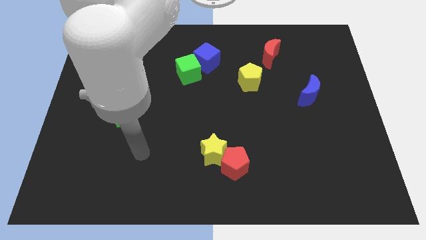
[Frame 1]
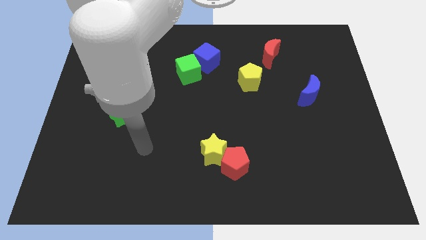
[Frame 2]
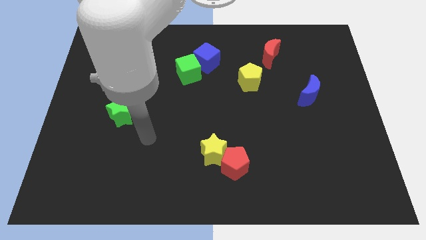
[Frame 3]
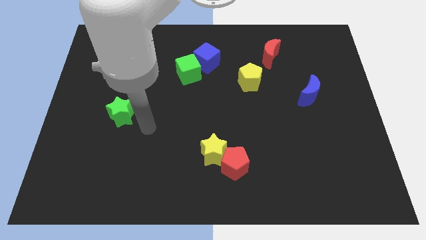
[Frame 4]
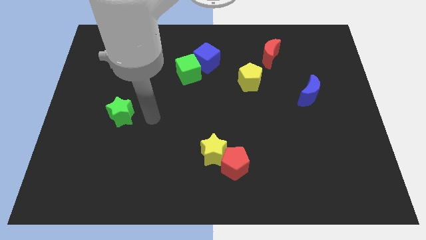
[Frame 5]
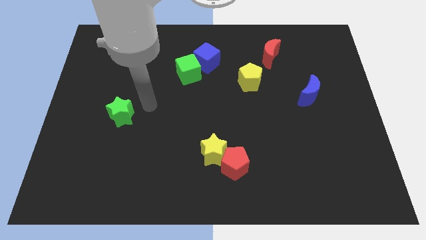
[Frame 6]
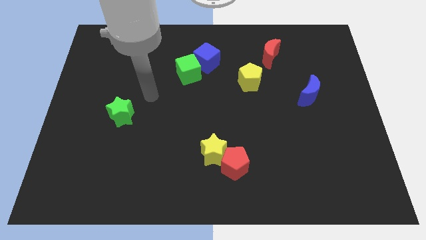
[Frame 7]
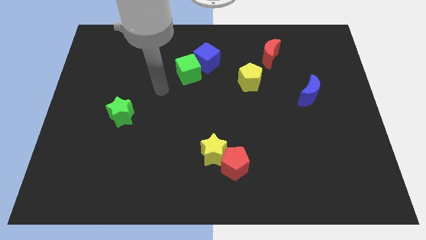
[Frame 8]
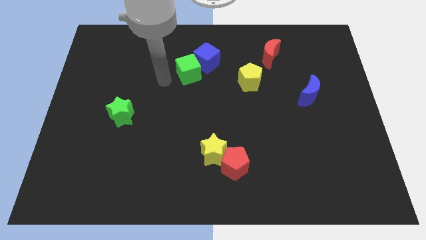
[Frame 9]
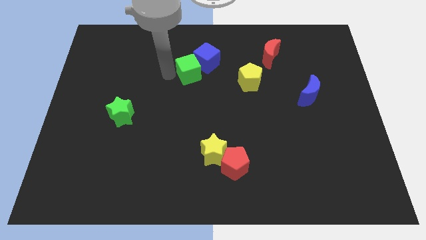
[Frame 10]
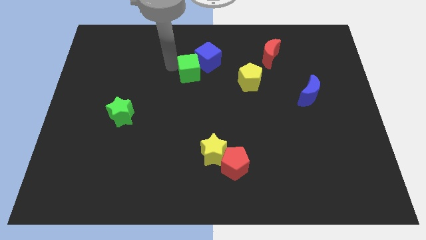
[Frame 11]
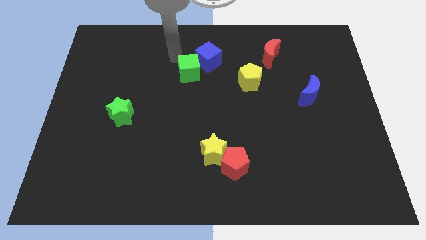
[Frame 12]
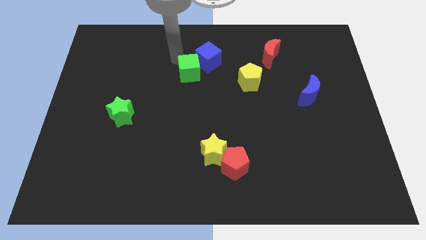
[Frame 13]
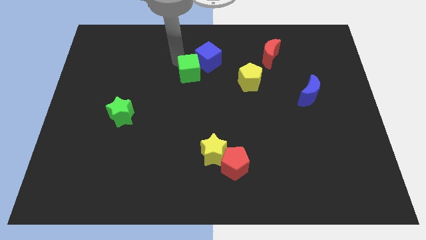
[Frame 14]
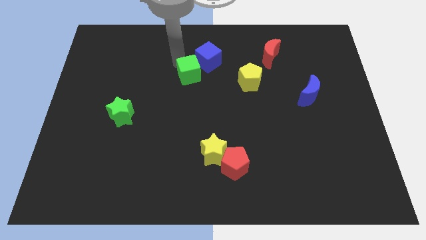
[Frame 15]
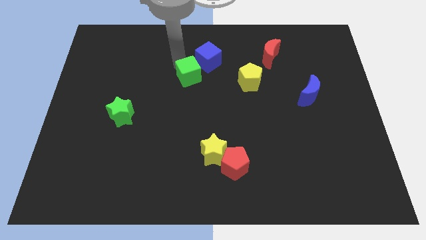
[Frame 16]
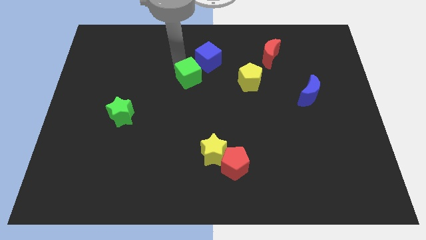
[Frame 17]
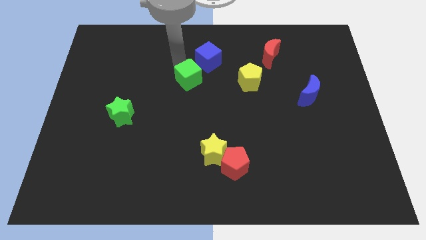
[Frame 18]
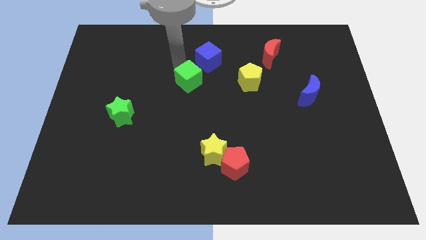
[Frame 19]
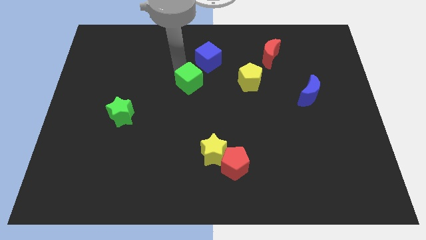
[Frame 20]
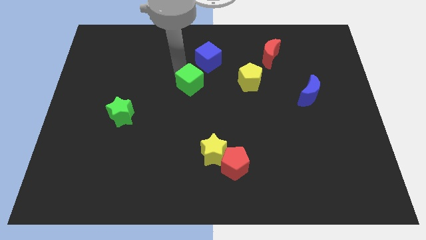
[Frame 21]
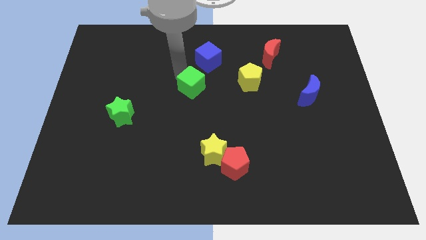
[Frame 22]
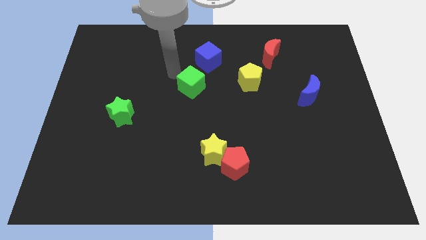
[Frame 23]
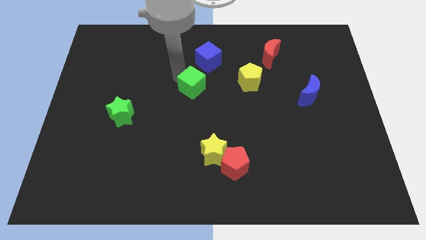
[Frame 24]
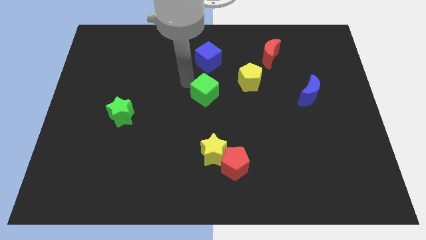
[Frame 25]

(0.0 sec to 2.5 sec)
move the green cube down and right a little

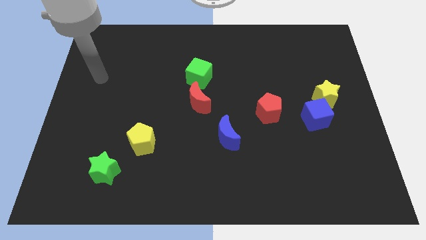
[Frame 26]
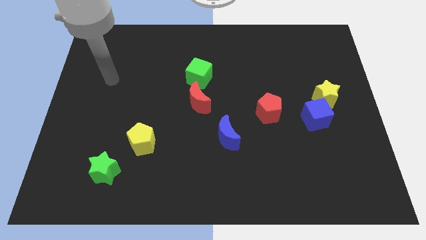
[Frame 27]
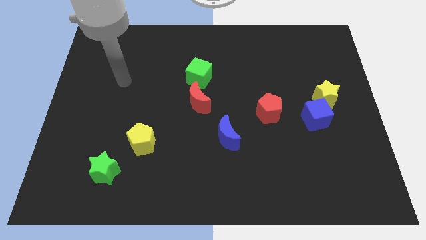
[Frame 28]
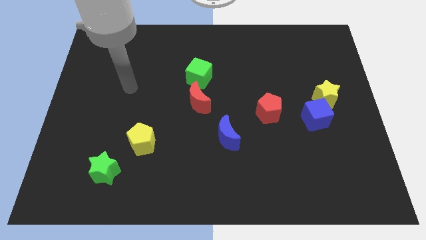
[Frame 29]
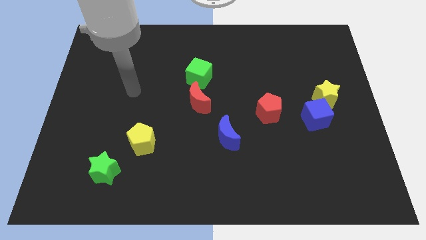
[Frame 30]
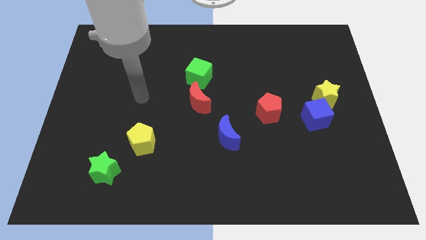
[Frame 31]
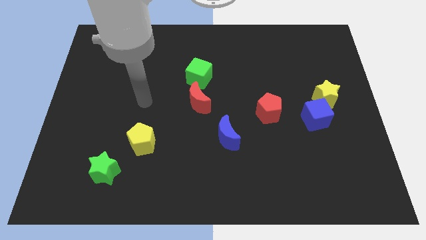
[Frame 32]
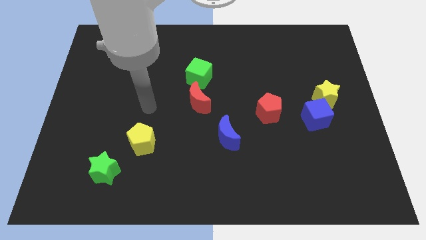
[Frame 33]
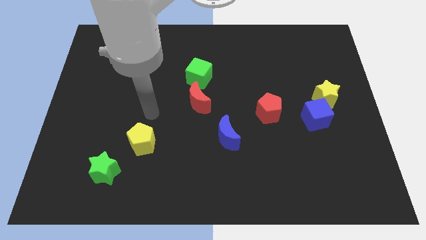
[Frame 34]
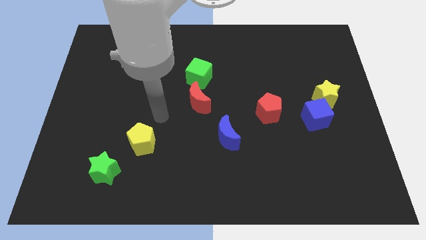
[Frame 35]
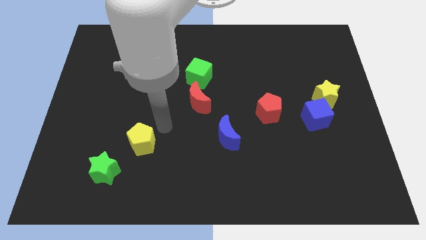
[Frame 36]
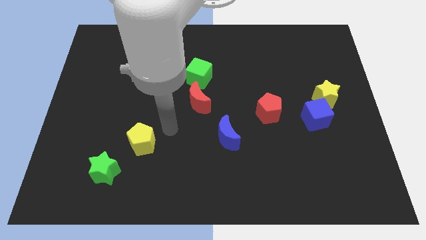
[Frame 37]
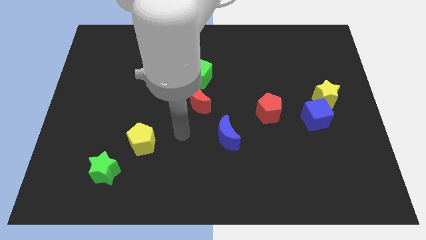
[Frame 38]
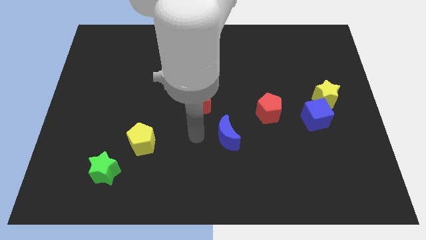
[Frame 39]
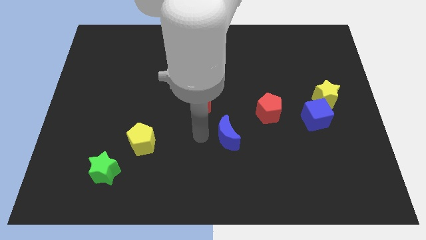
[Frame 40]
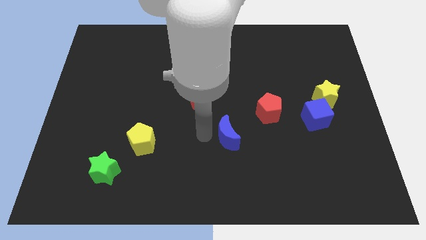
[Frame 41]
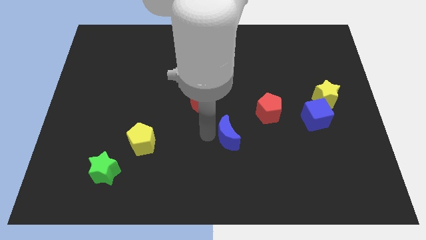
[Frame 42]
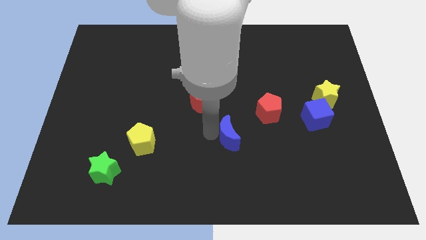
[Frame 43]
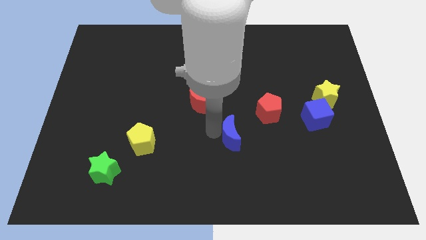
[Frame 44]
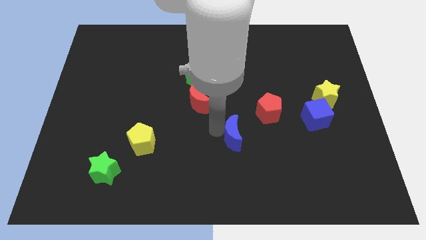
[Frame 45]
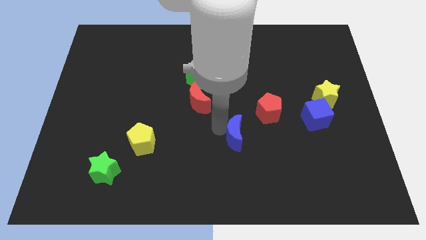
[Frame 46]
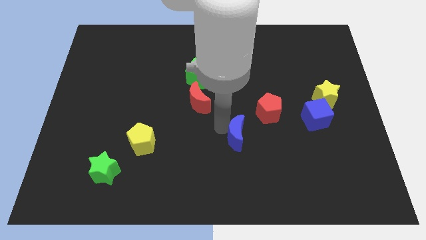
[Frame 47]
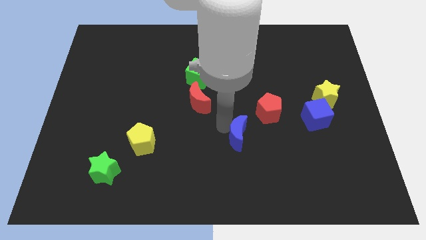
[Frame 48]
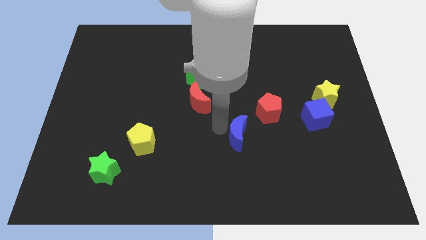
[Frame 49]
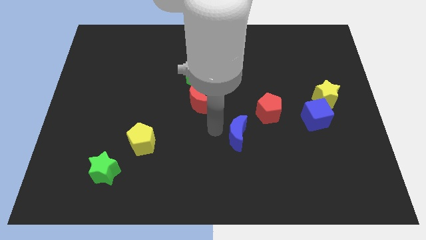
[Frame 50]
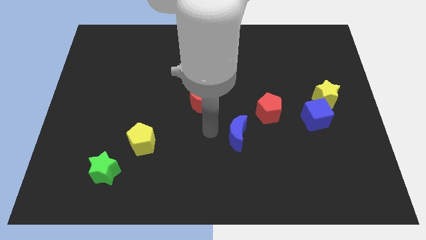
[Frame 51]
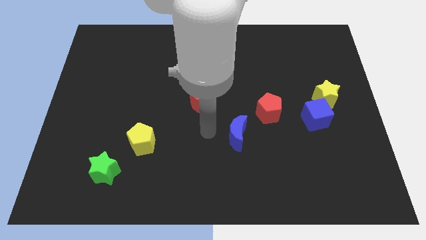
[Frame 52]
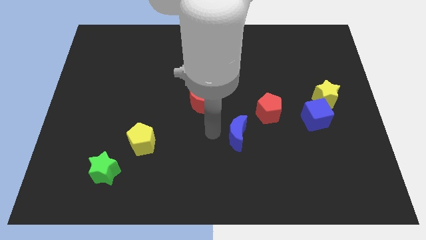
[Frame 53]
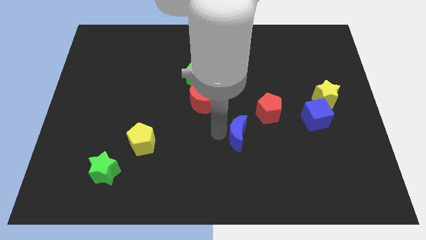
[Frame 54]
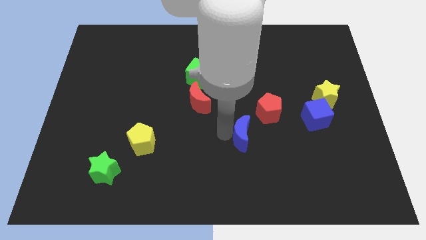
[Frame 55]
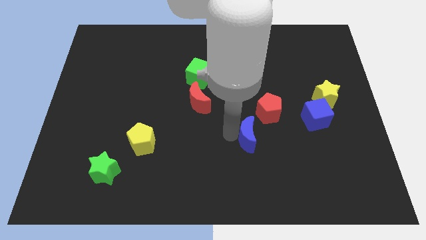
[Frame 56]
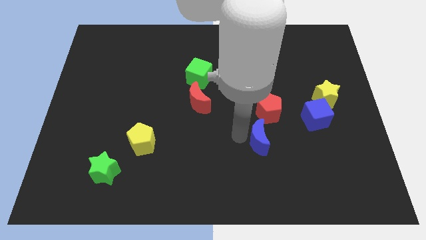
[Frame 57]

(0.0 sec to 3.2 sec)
slide the blue moon a little to the right

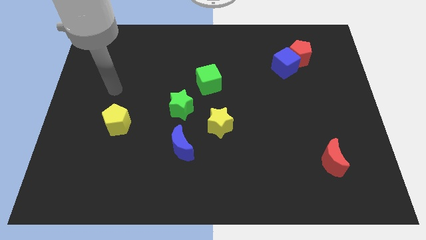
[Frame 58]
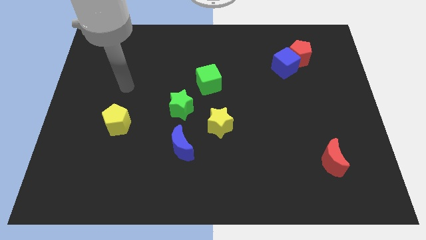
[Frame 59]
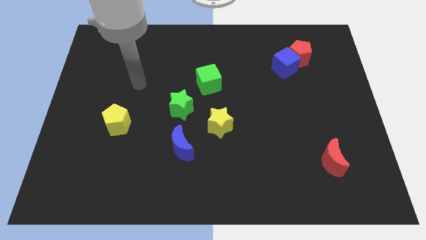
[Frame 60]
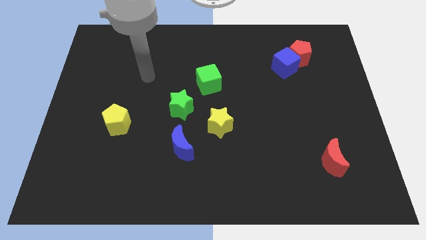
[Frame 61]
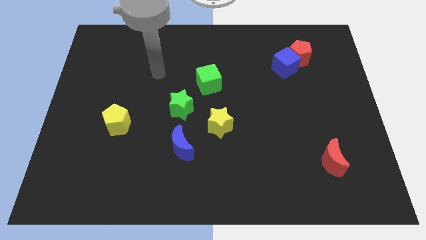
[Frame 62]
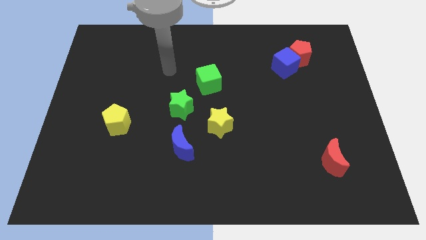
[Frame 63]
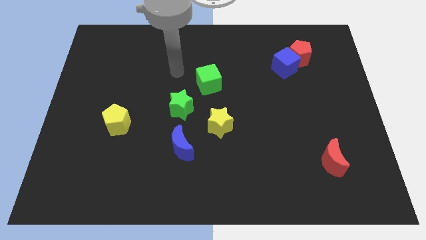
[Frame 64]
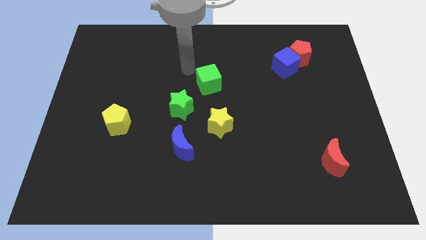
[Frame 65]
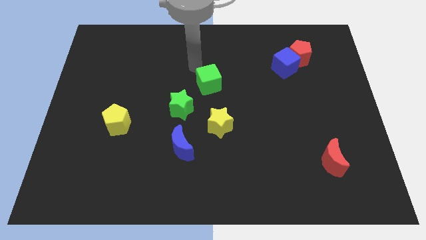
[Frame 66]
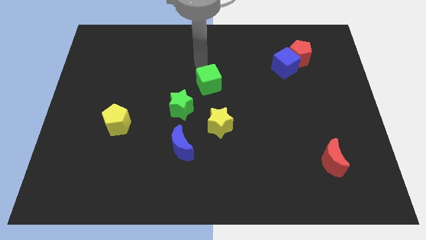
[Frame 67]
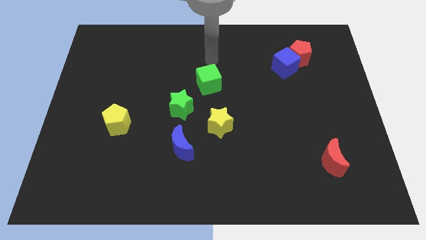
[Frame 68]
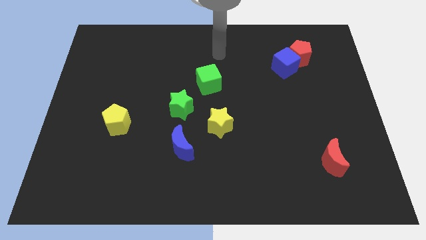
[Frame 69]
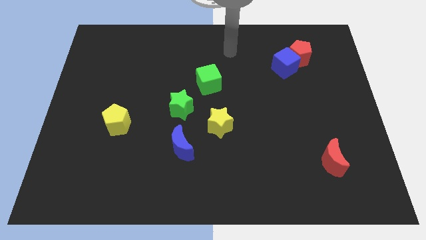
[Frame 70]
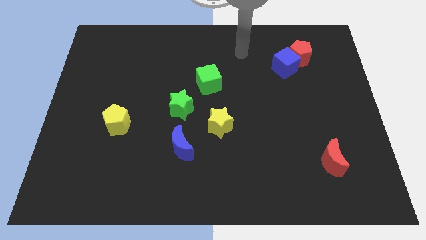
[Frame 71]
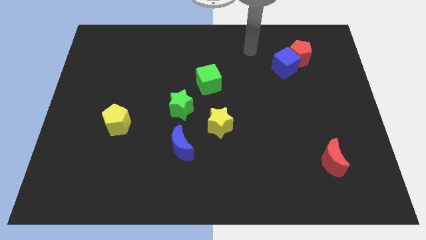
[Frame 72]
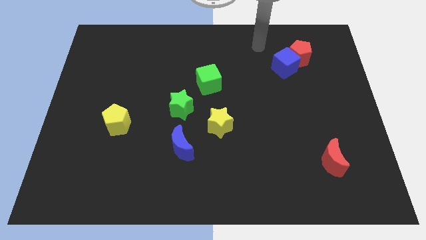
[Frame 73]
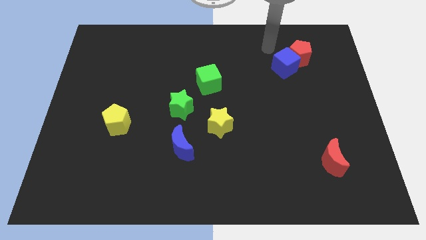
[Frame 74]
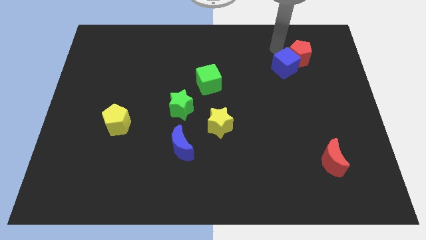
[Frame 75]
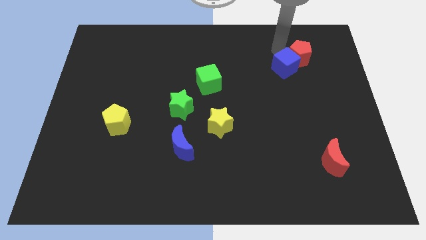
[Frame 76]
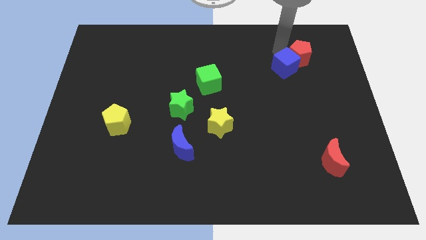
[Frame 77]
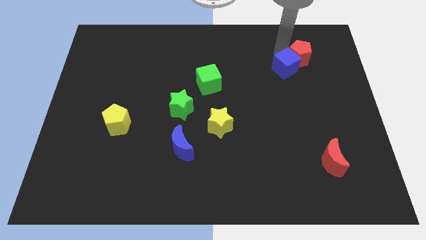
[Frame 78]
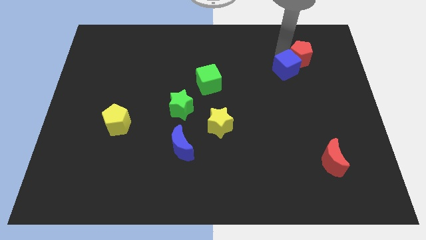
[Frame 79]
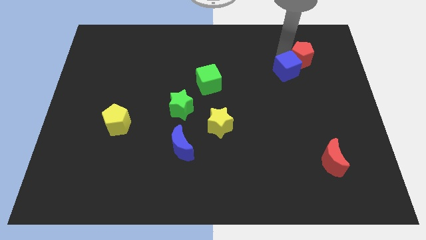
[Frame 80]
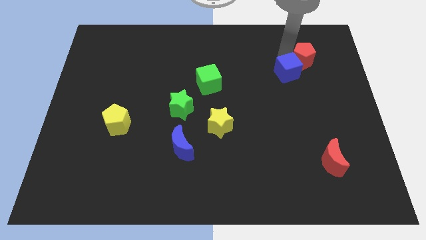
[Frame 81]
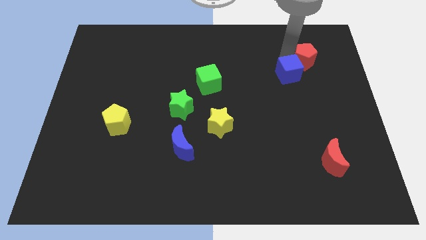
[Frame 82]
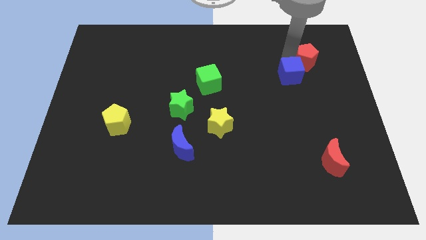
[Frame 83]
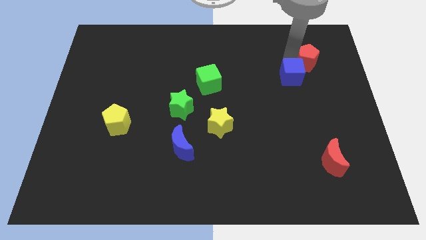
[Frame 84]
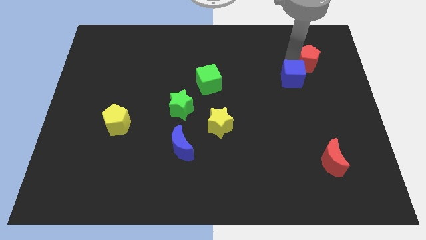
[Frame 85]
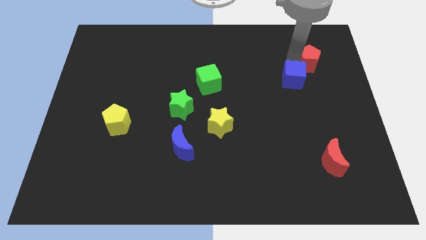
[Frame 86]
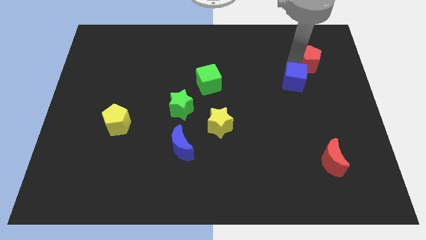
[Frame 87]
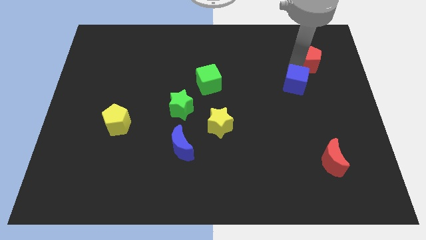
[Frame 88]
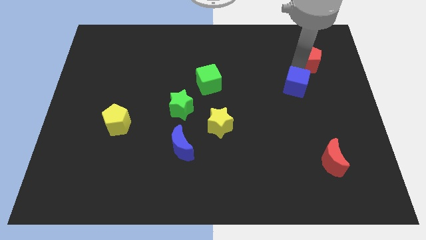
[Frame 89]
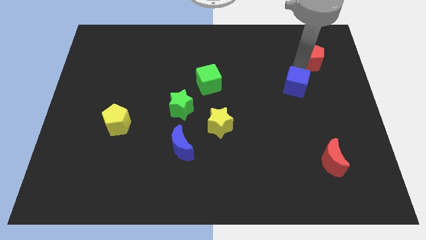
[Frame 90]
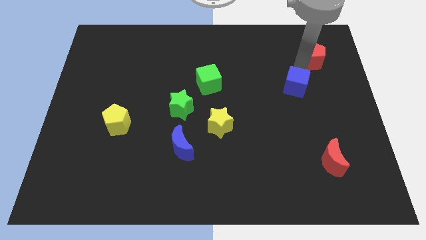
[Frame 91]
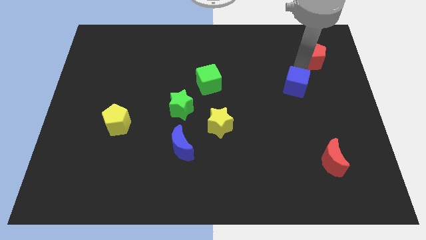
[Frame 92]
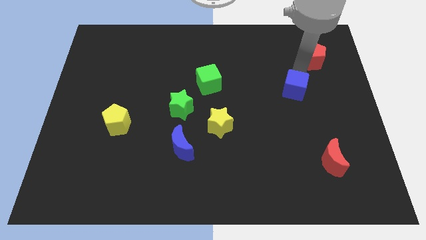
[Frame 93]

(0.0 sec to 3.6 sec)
move the blue cube down a bit
